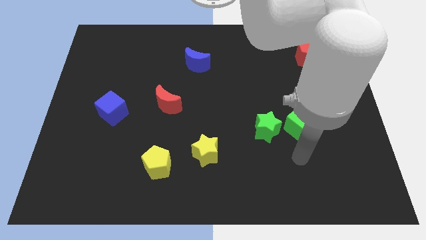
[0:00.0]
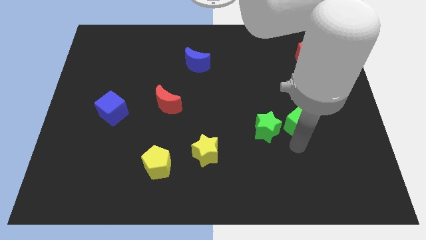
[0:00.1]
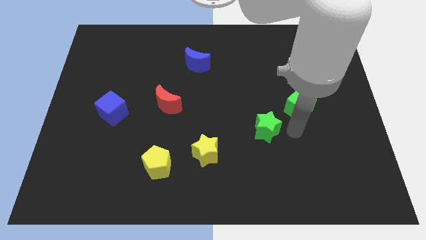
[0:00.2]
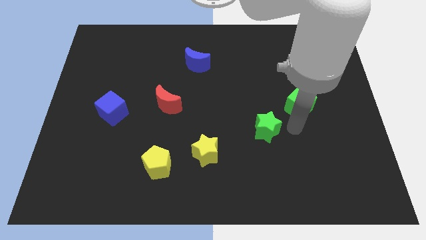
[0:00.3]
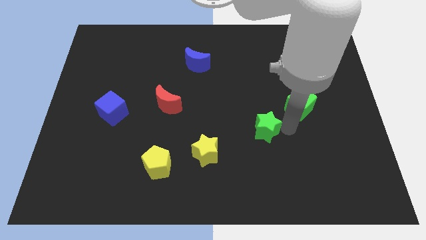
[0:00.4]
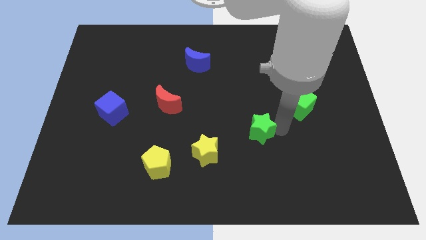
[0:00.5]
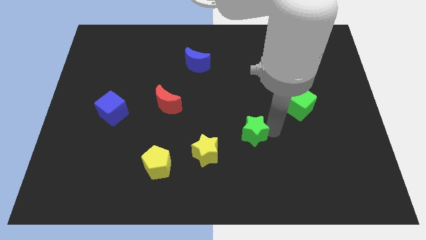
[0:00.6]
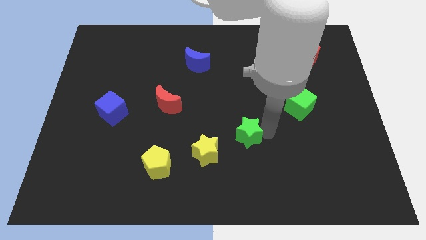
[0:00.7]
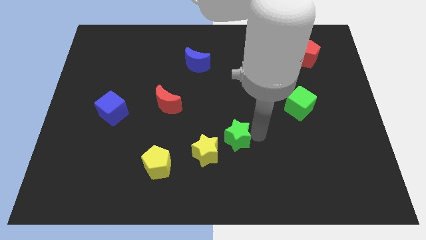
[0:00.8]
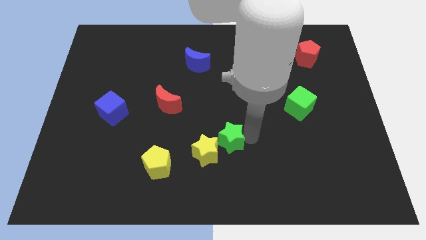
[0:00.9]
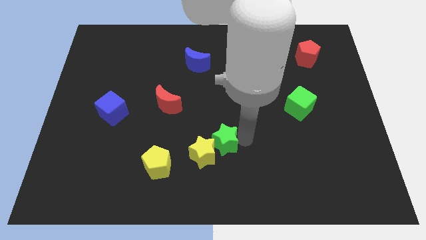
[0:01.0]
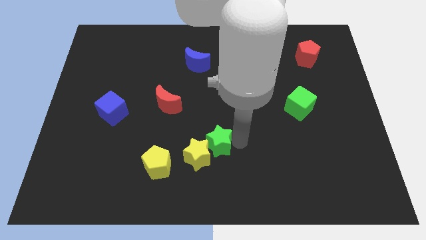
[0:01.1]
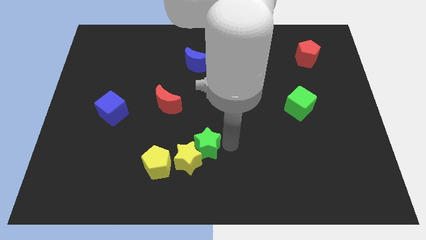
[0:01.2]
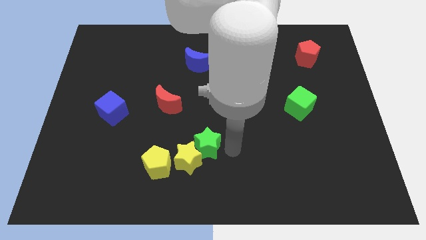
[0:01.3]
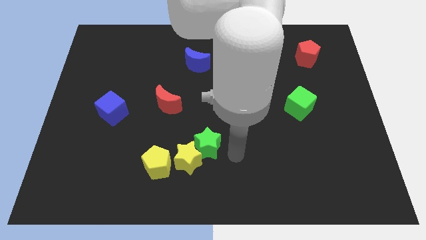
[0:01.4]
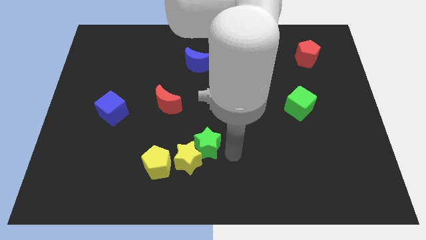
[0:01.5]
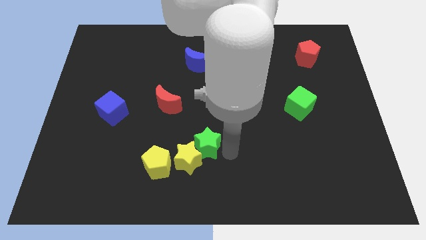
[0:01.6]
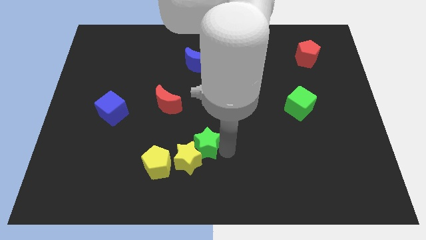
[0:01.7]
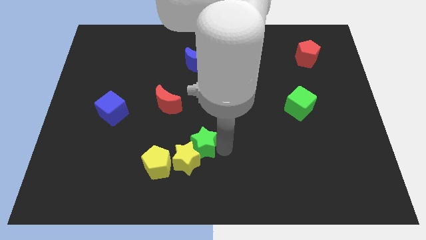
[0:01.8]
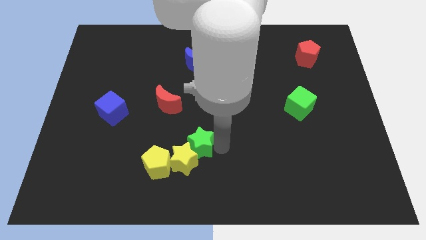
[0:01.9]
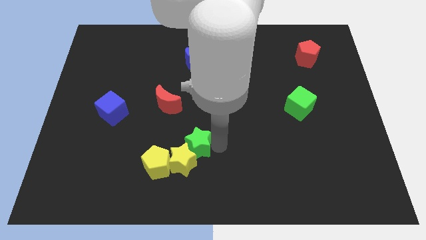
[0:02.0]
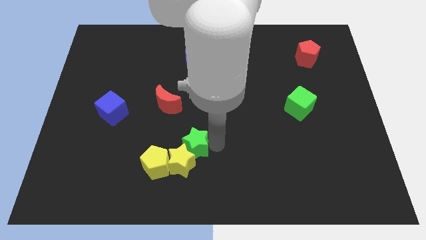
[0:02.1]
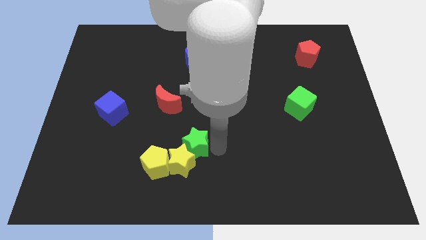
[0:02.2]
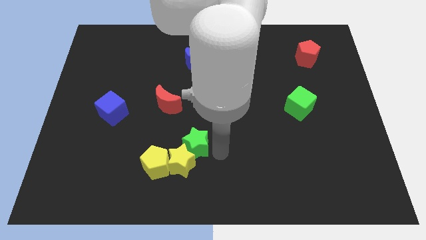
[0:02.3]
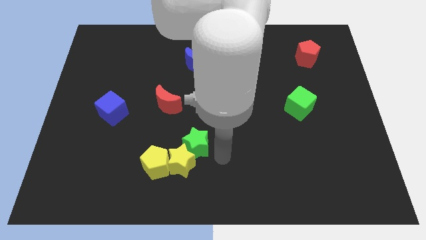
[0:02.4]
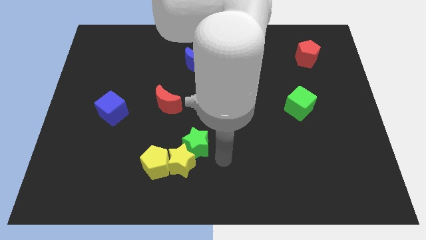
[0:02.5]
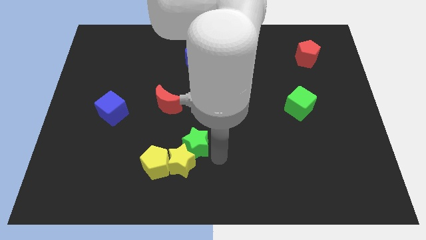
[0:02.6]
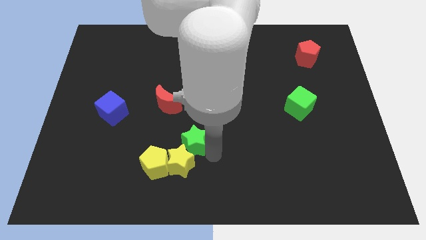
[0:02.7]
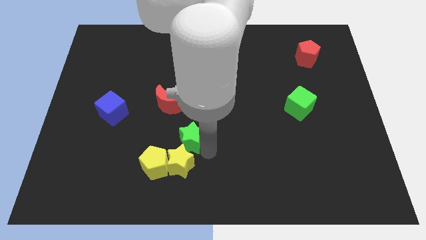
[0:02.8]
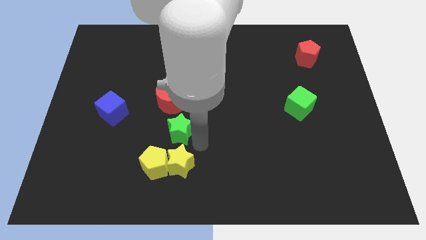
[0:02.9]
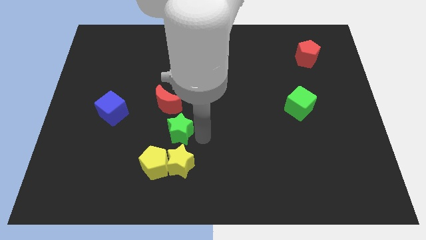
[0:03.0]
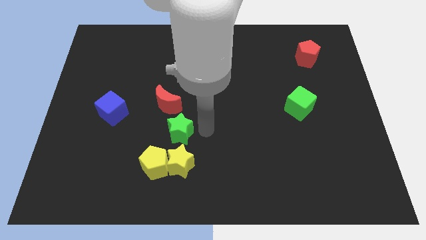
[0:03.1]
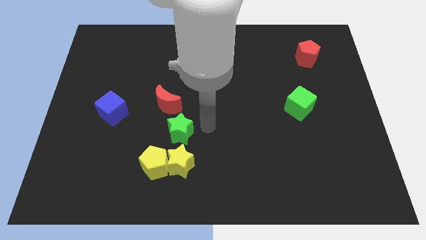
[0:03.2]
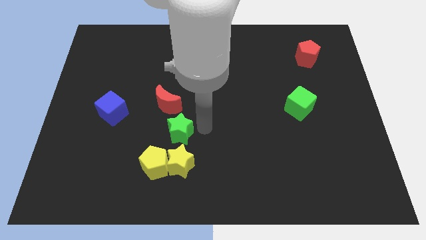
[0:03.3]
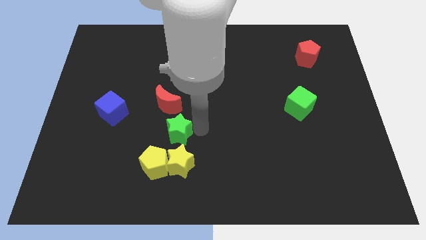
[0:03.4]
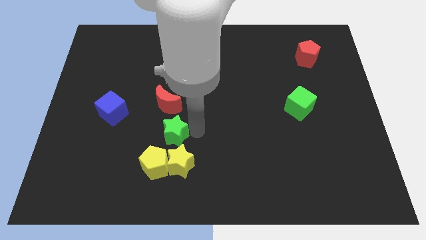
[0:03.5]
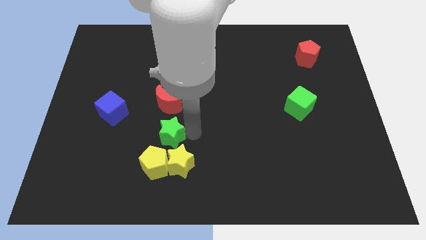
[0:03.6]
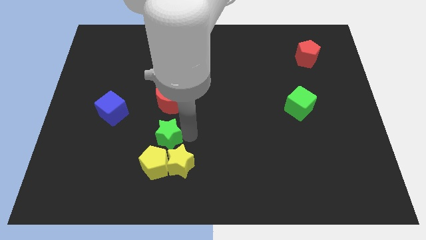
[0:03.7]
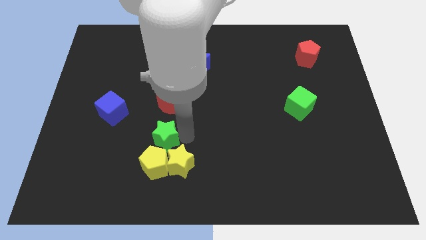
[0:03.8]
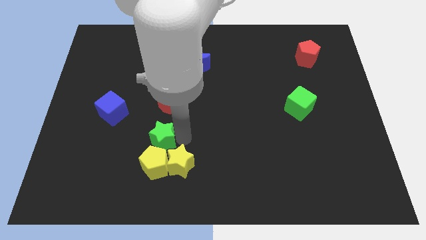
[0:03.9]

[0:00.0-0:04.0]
push the green star to the top left of the yellow pentagon

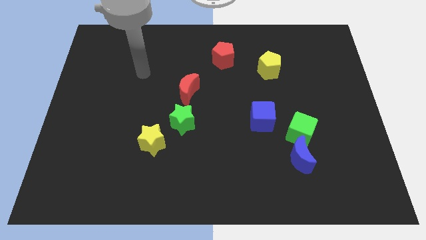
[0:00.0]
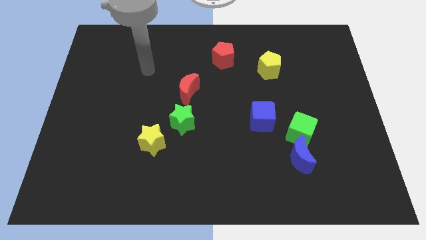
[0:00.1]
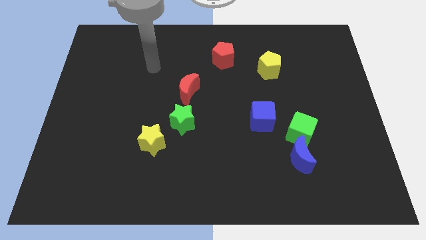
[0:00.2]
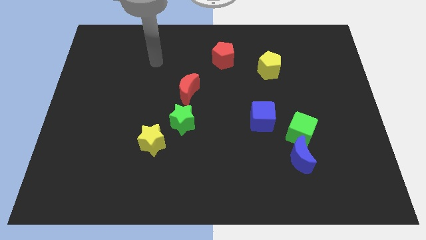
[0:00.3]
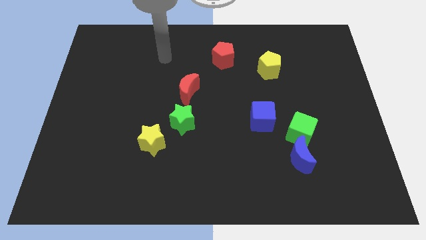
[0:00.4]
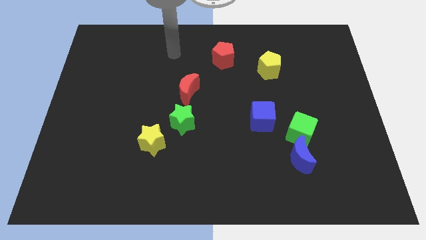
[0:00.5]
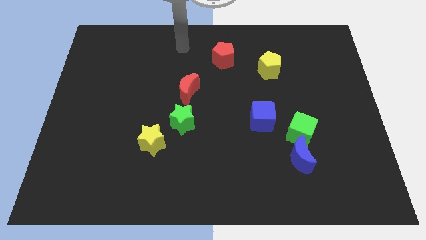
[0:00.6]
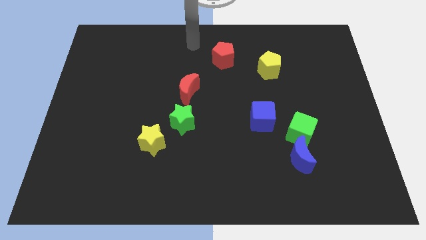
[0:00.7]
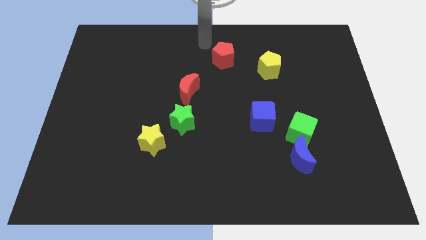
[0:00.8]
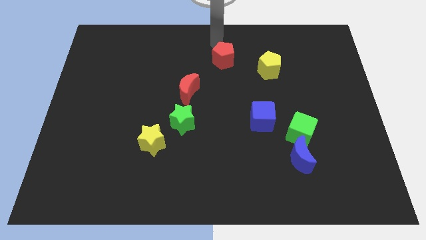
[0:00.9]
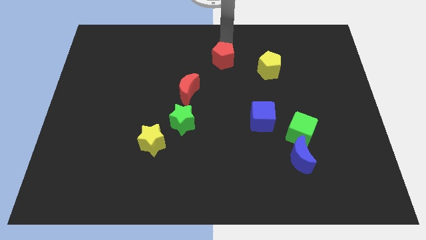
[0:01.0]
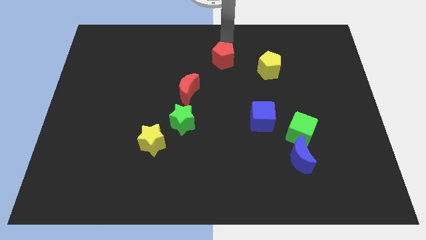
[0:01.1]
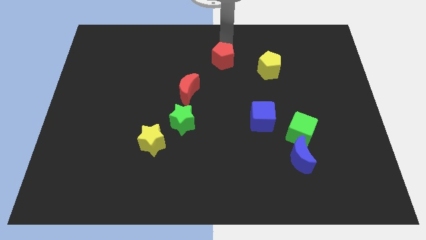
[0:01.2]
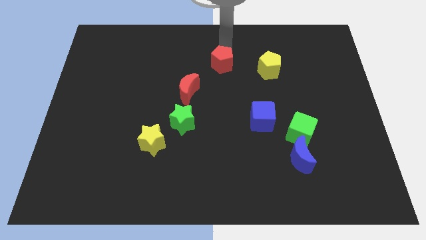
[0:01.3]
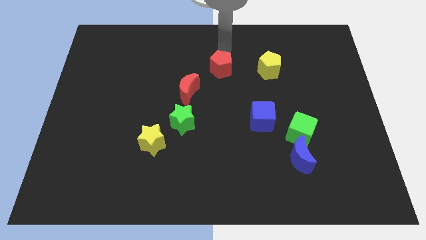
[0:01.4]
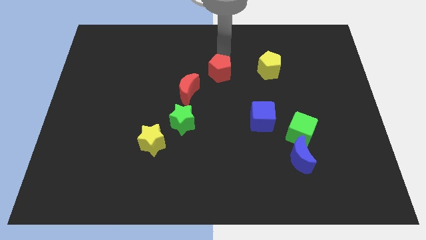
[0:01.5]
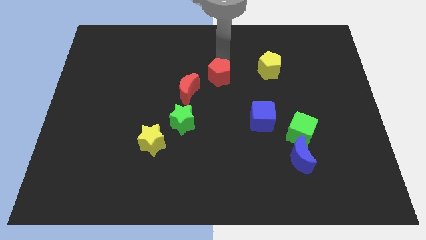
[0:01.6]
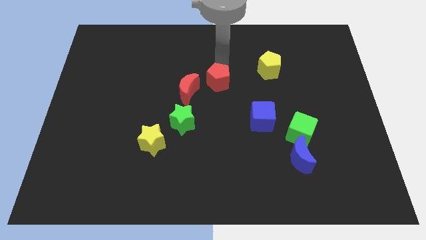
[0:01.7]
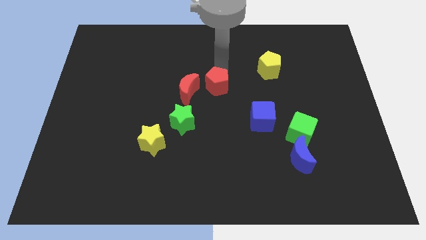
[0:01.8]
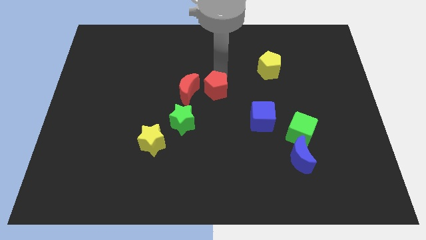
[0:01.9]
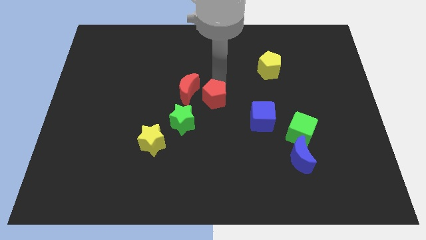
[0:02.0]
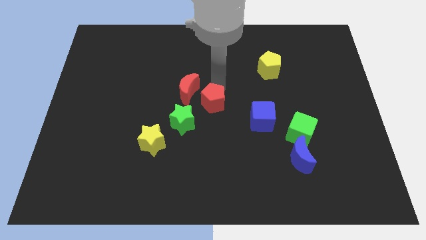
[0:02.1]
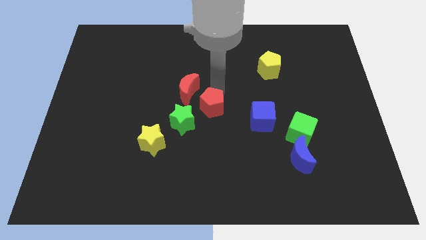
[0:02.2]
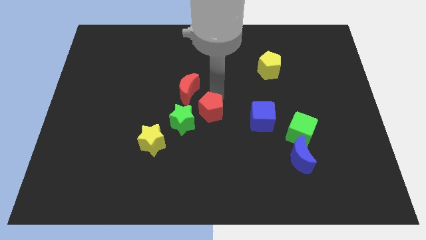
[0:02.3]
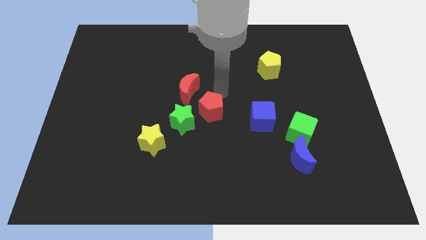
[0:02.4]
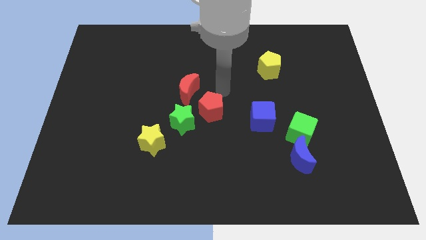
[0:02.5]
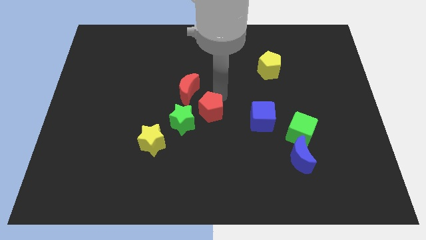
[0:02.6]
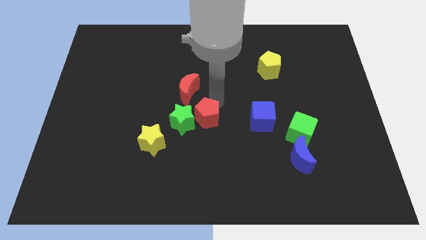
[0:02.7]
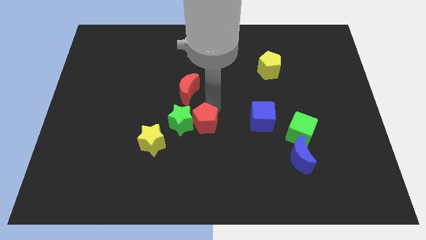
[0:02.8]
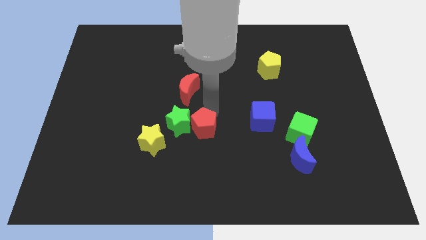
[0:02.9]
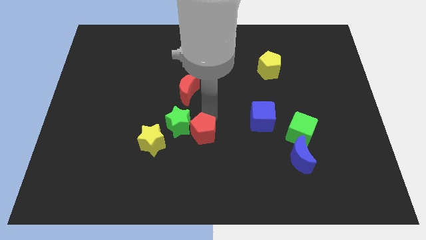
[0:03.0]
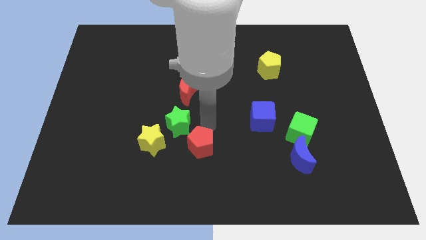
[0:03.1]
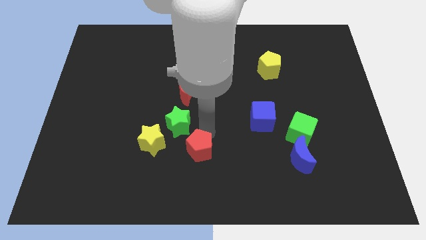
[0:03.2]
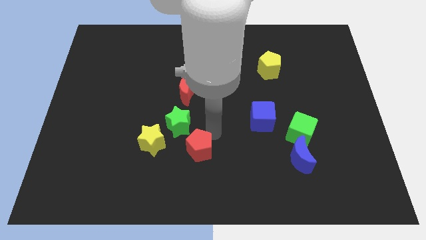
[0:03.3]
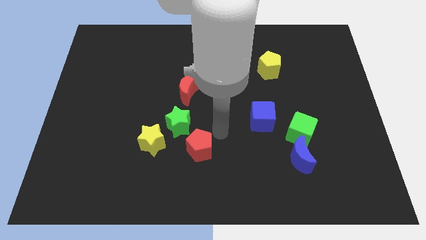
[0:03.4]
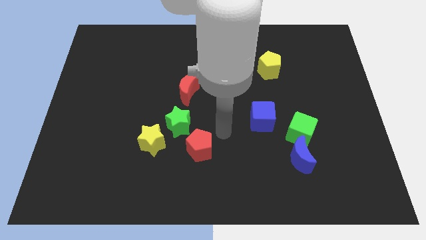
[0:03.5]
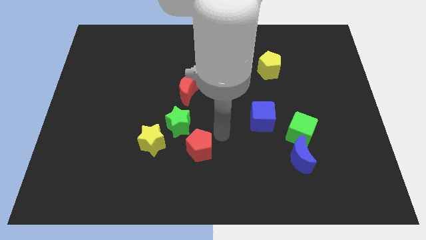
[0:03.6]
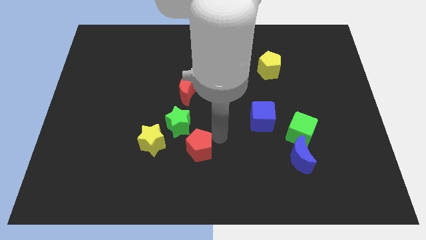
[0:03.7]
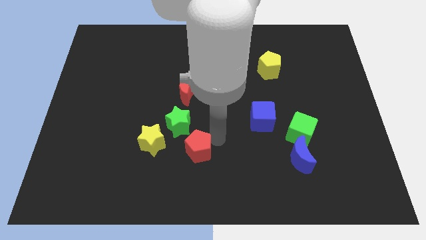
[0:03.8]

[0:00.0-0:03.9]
put the red pentagon below the green star
